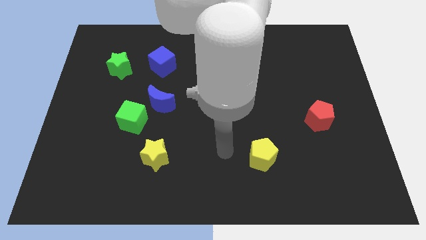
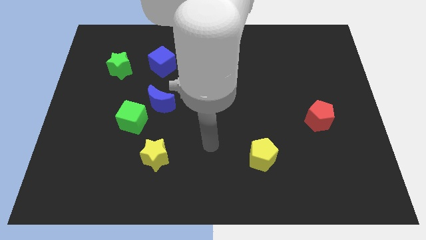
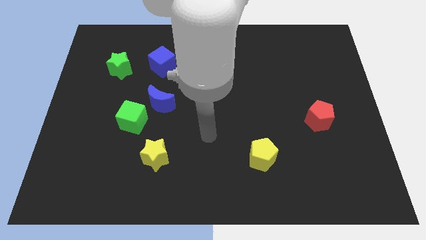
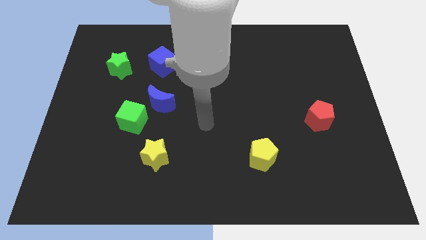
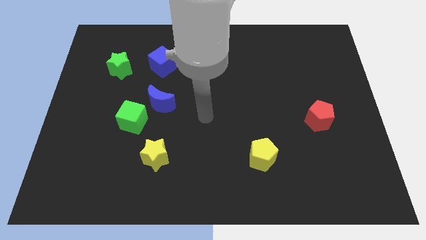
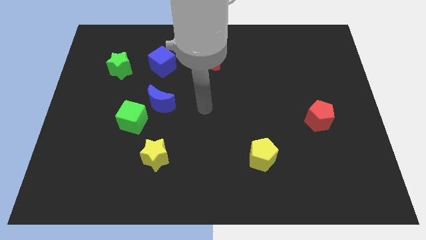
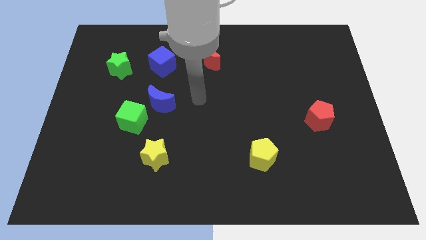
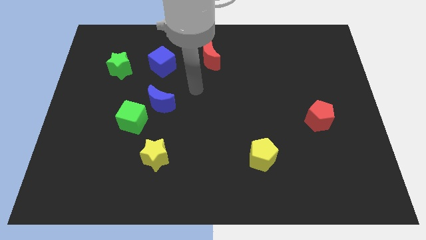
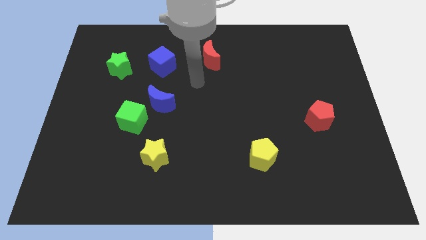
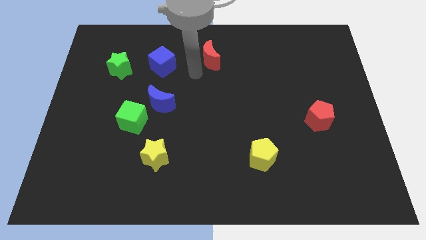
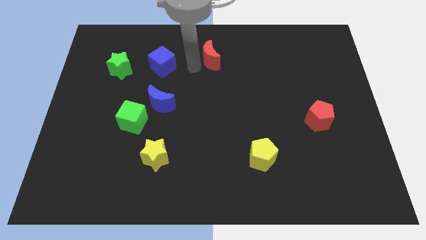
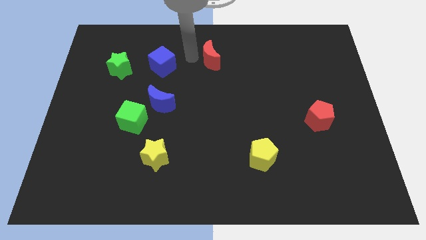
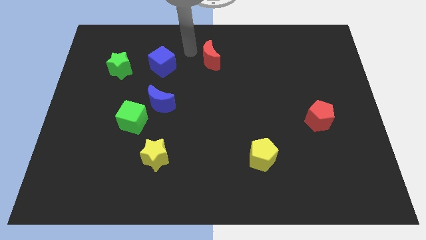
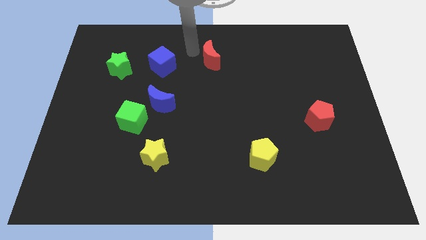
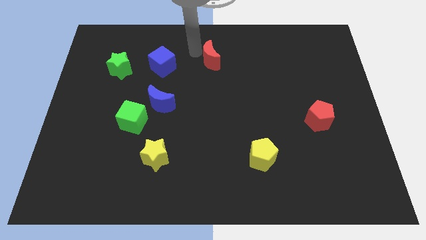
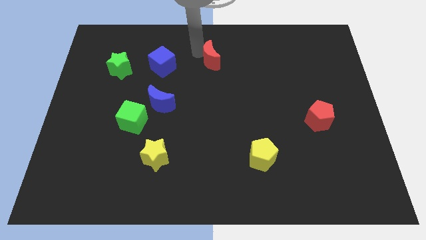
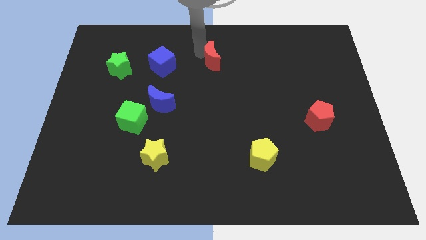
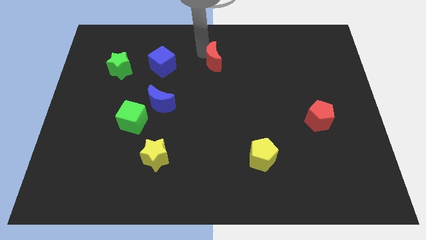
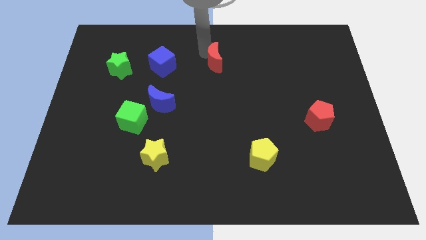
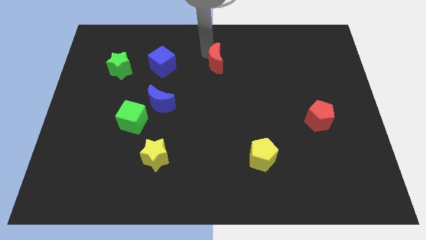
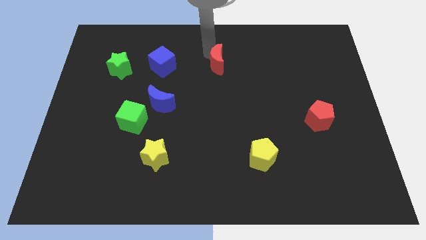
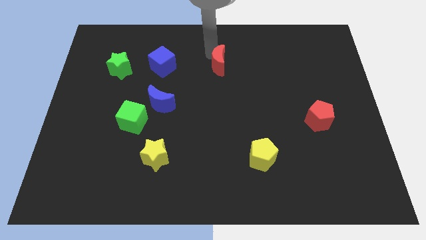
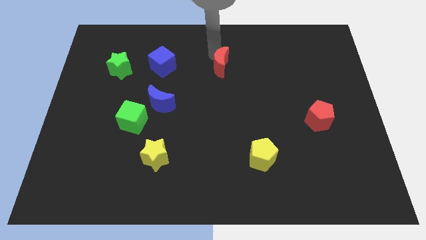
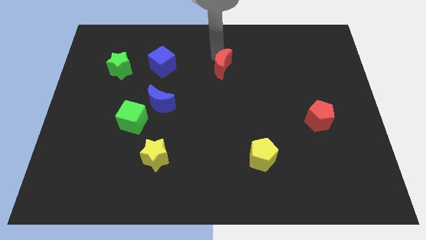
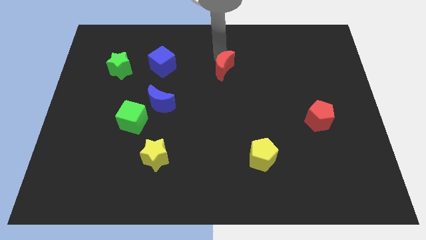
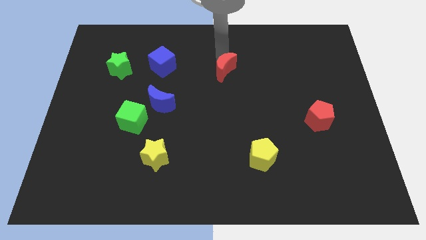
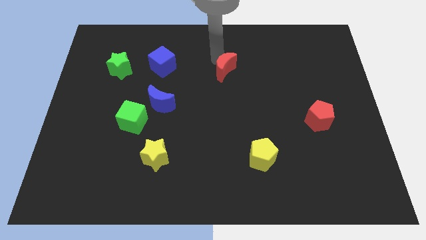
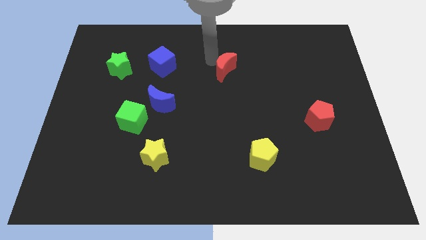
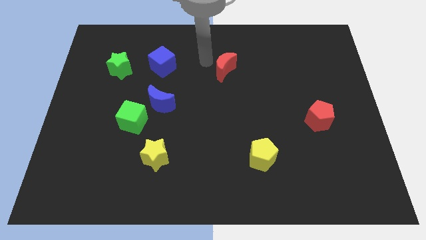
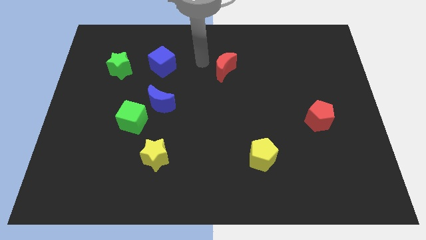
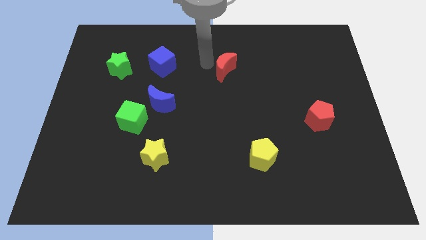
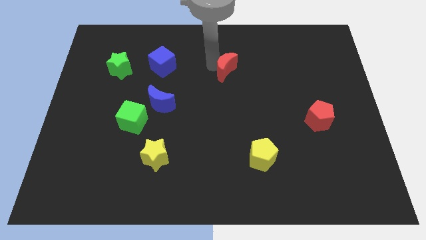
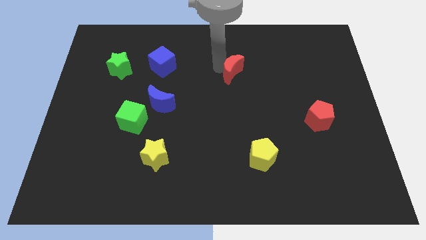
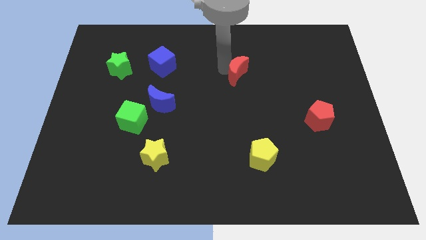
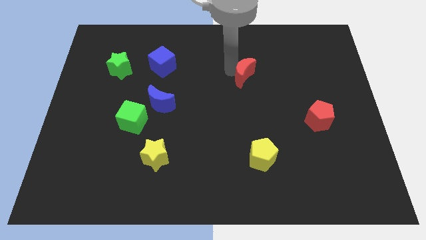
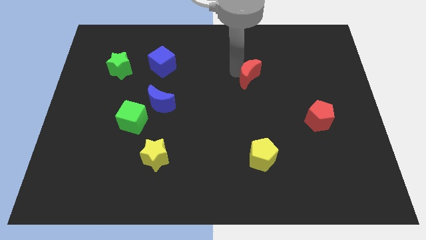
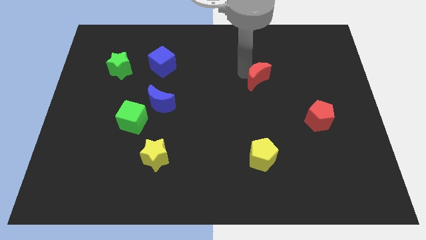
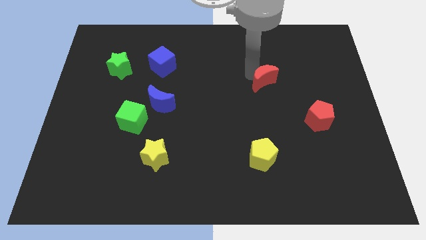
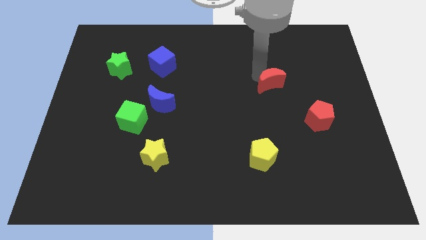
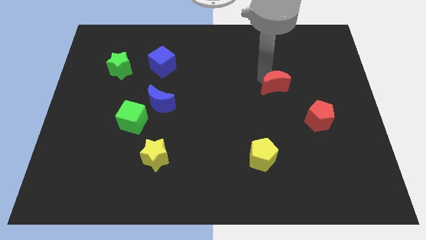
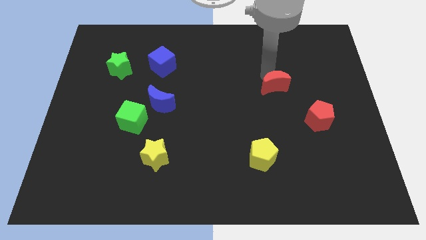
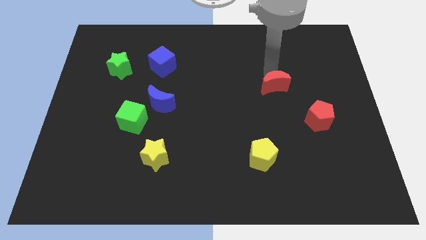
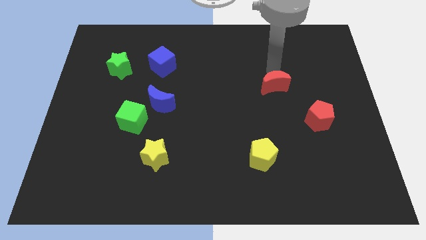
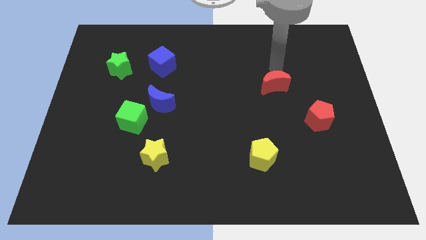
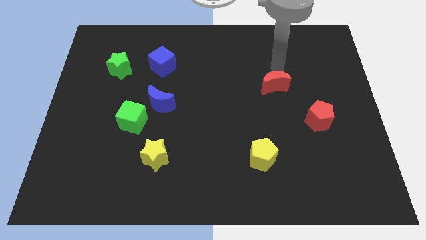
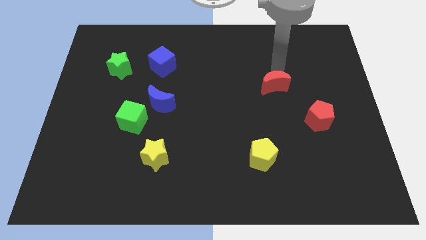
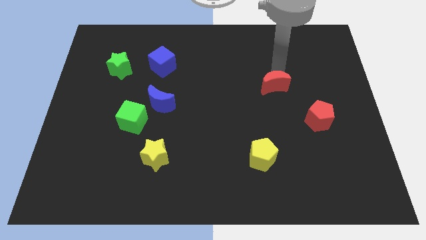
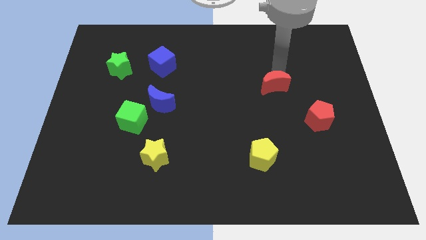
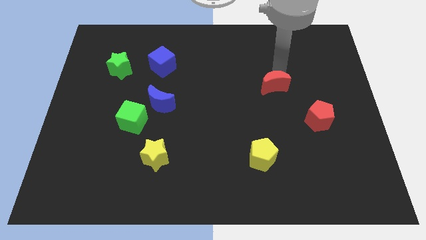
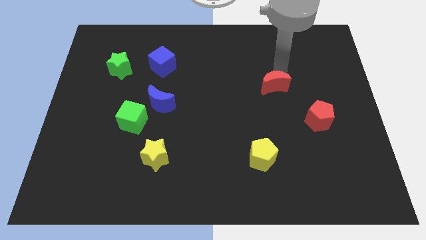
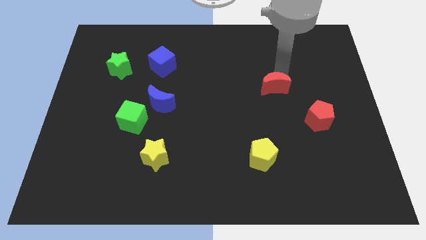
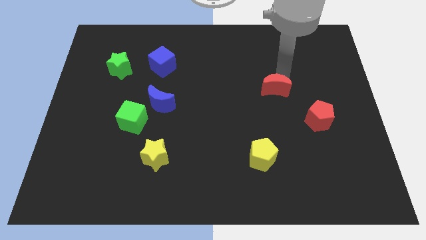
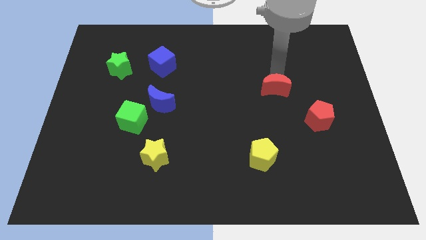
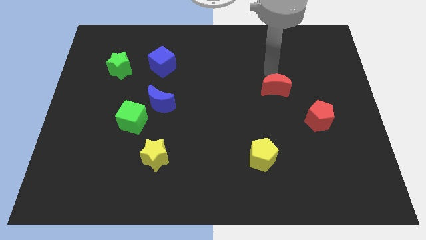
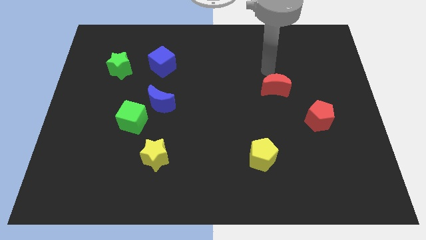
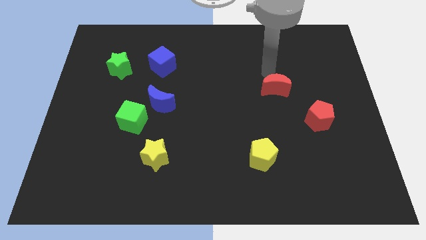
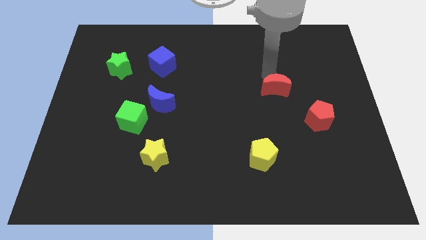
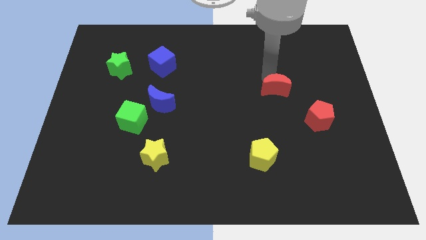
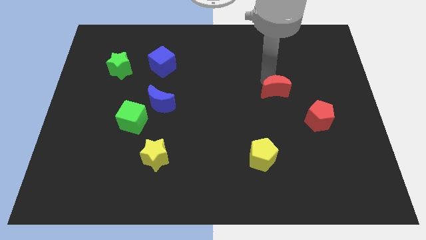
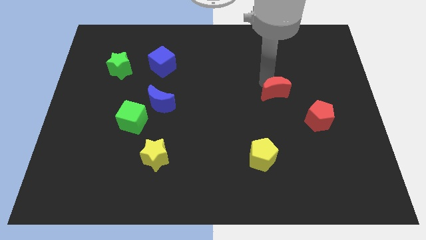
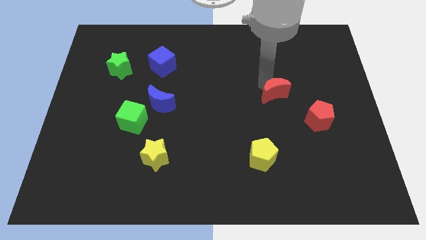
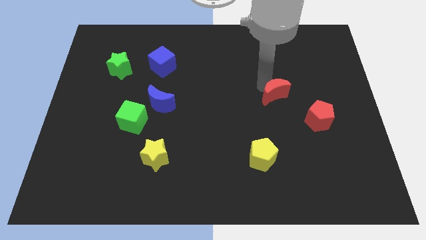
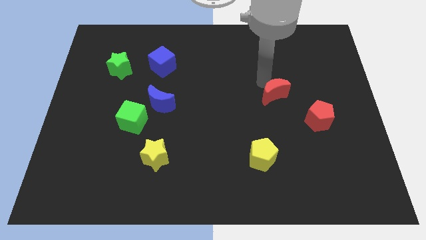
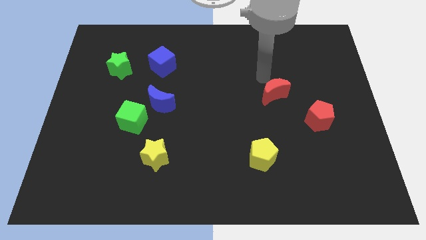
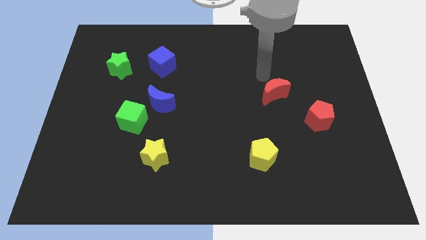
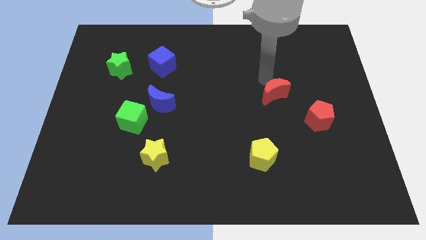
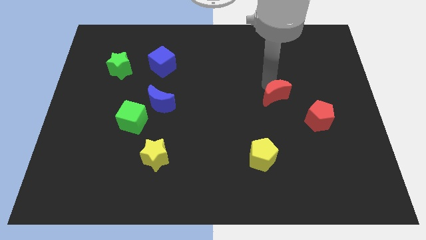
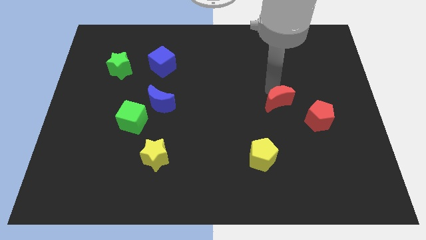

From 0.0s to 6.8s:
move the red moon down and right

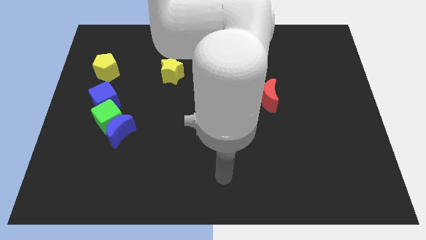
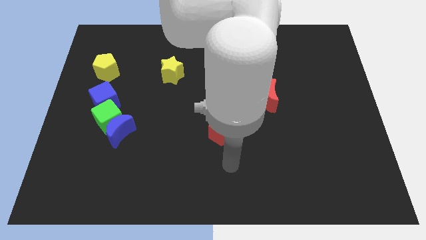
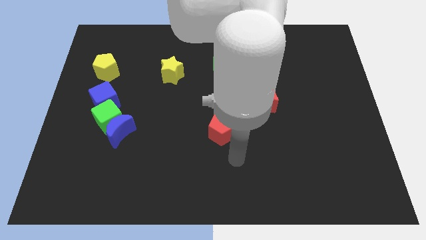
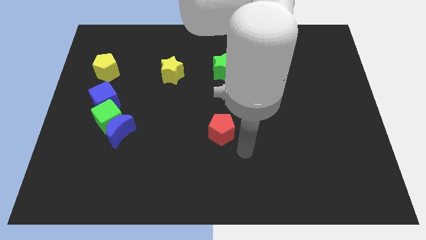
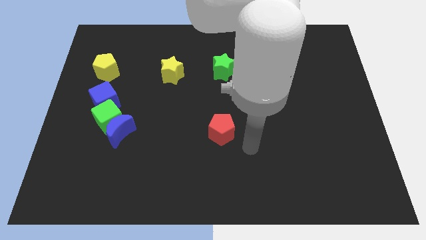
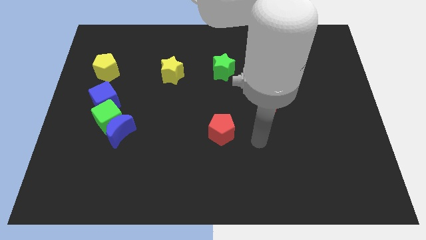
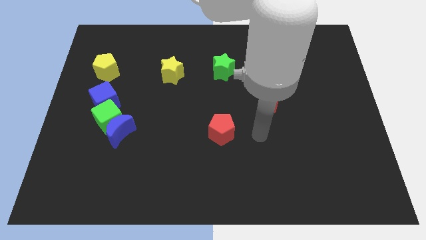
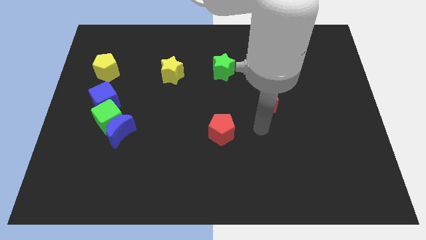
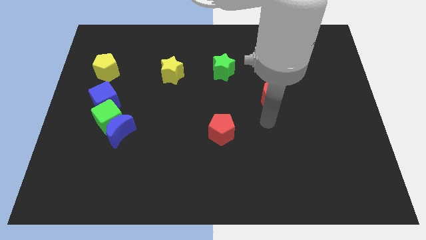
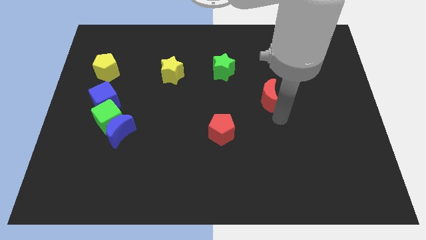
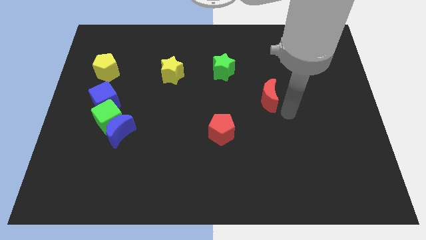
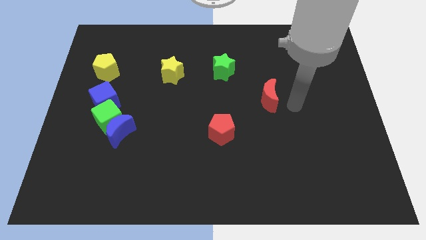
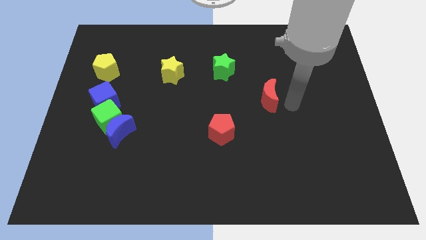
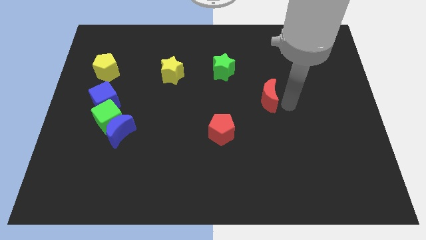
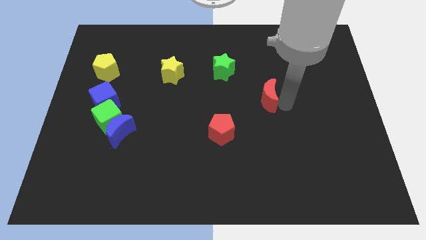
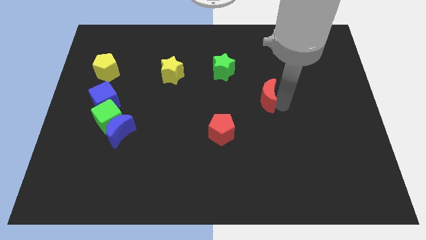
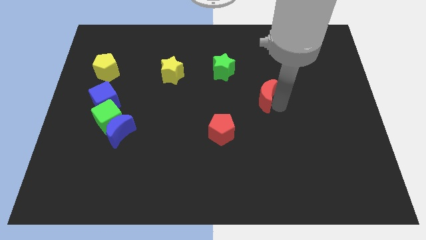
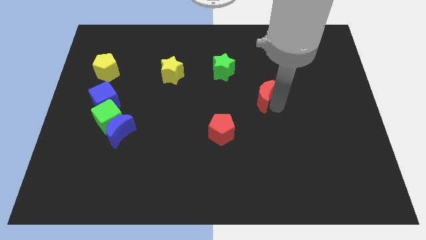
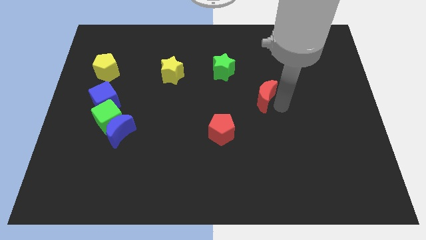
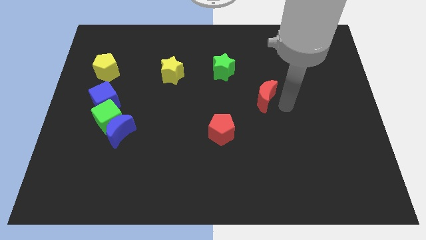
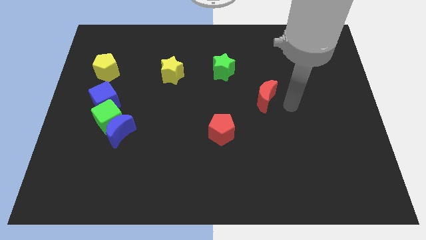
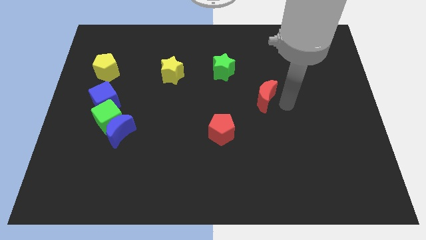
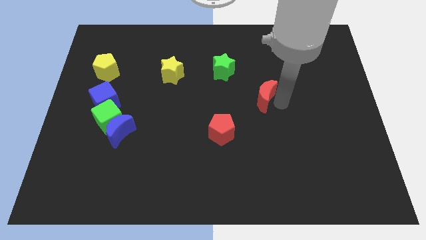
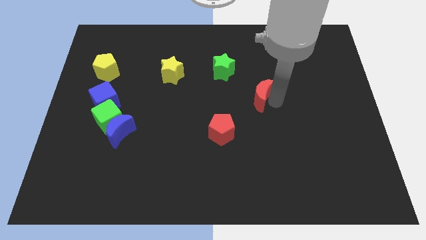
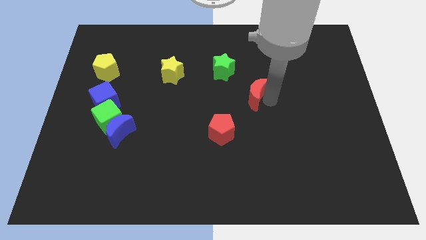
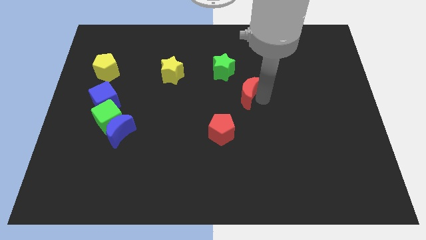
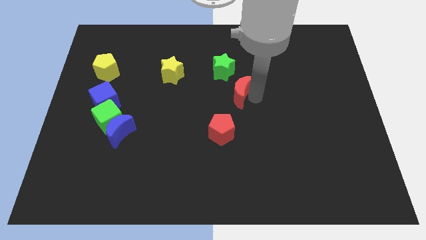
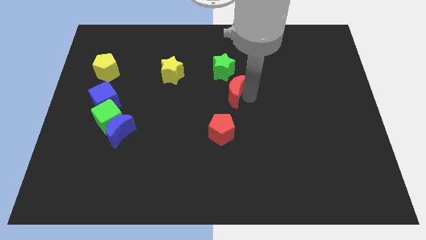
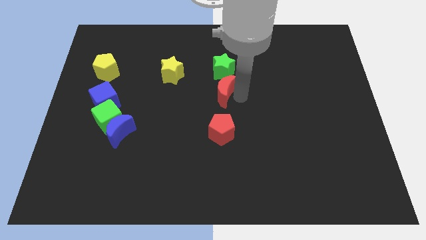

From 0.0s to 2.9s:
slide the red moon upwards and to the left diagonally slightly
